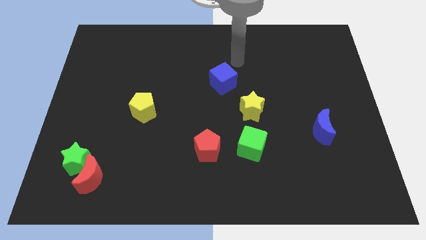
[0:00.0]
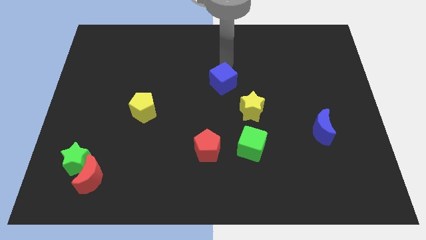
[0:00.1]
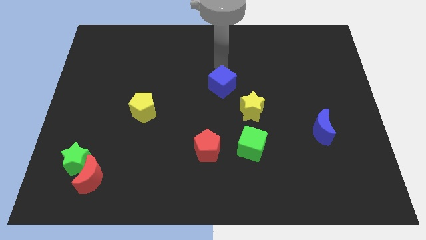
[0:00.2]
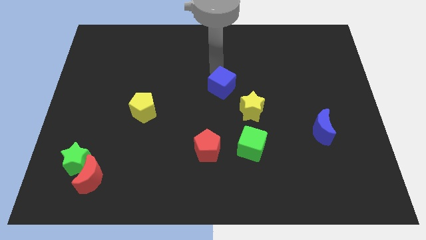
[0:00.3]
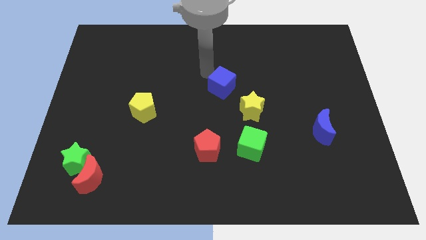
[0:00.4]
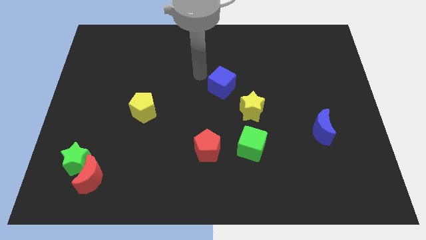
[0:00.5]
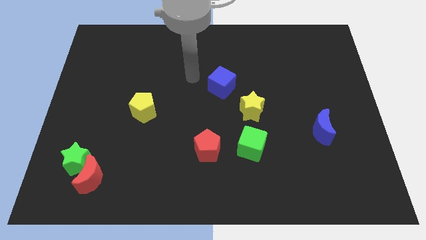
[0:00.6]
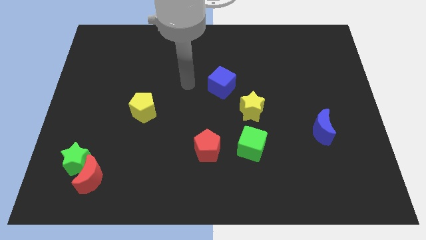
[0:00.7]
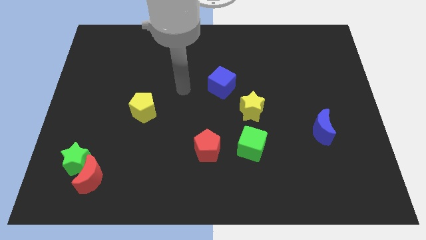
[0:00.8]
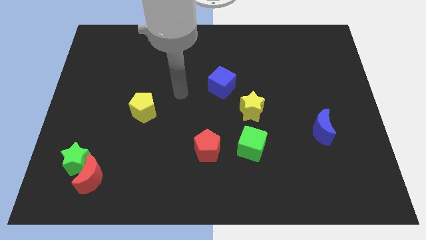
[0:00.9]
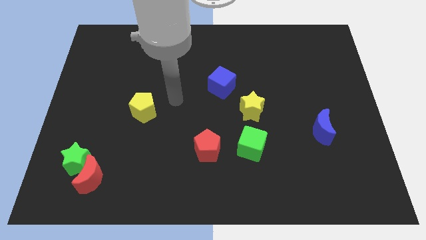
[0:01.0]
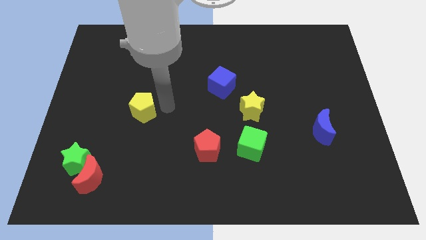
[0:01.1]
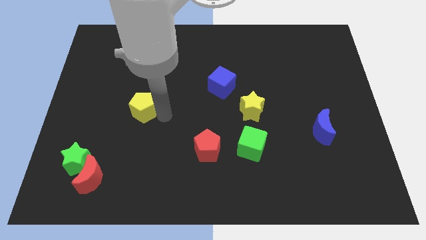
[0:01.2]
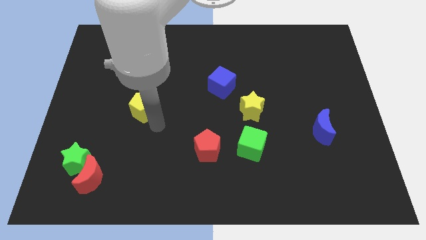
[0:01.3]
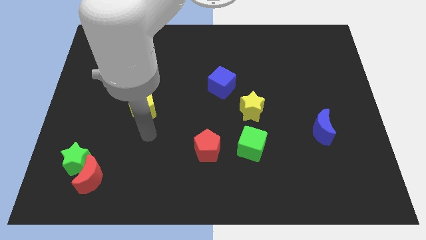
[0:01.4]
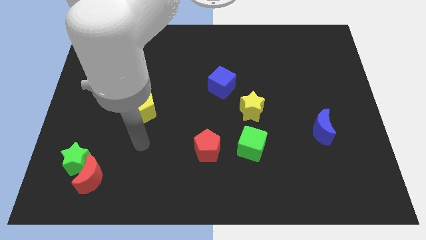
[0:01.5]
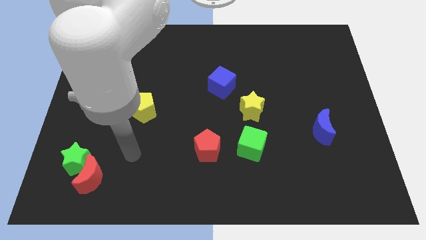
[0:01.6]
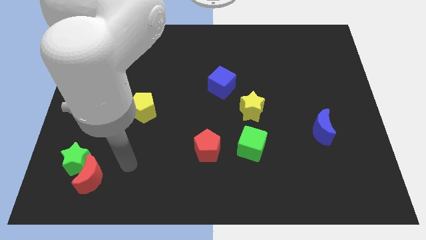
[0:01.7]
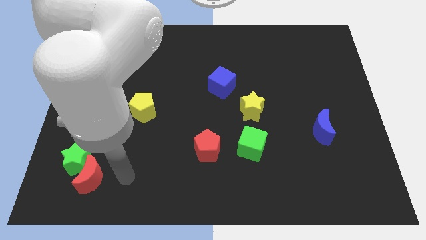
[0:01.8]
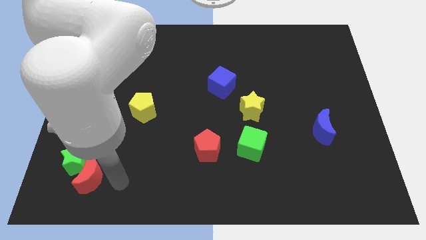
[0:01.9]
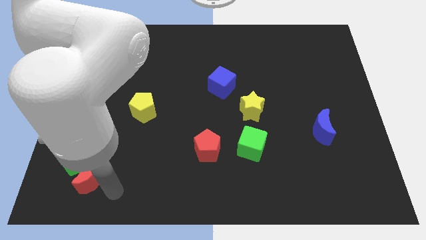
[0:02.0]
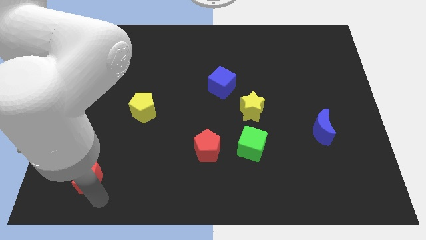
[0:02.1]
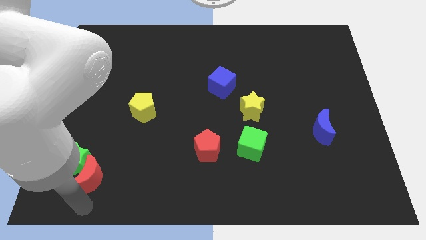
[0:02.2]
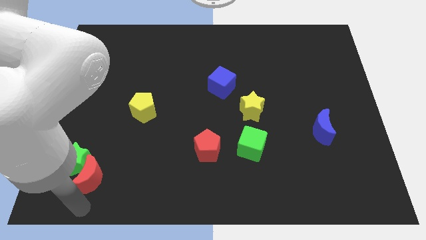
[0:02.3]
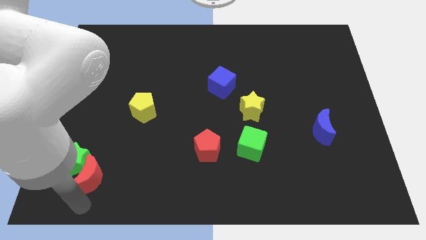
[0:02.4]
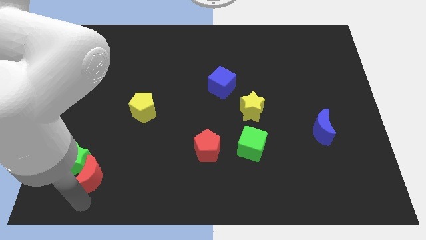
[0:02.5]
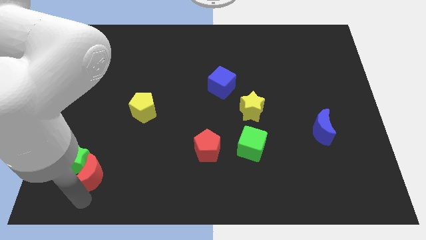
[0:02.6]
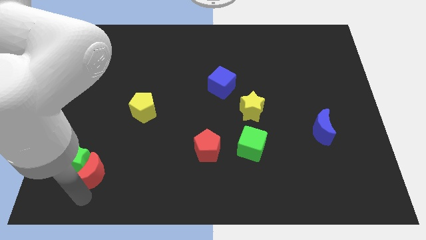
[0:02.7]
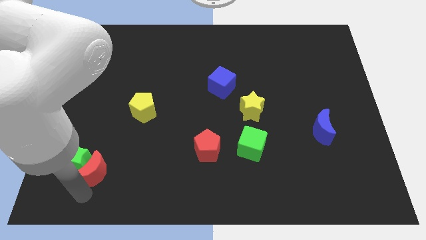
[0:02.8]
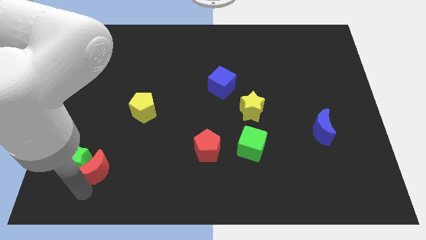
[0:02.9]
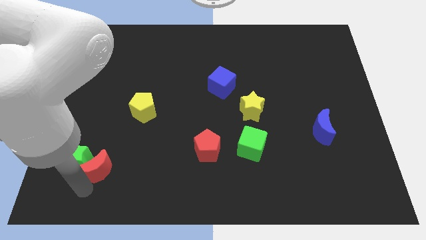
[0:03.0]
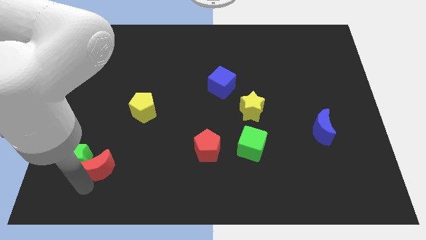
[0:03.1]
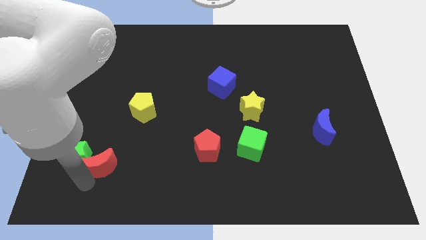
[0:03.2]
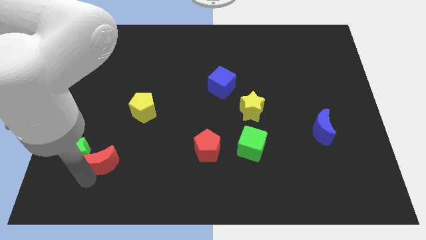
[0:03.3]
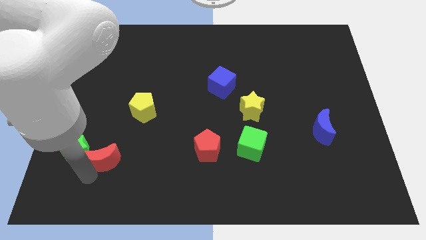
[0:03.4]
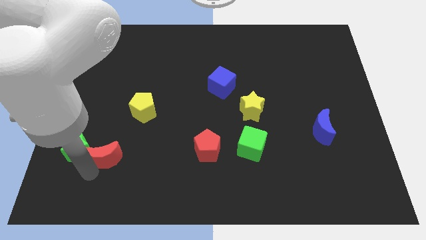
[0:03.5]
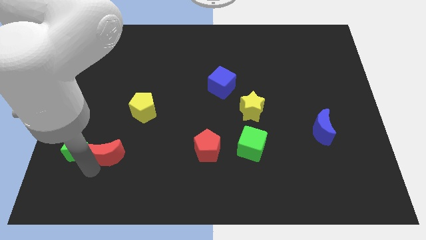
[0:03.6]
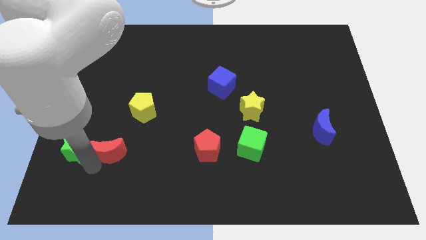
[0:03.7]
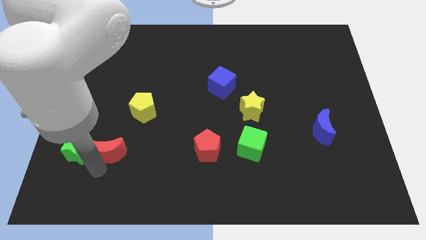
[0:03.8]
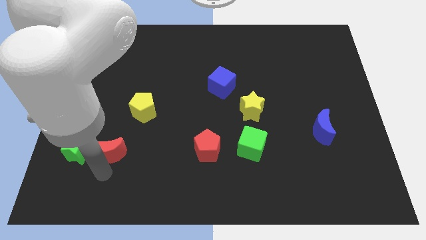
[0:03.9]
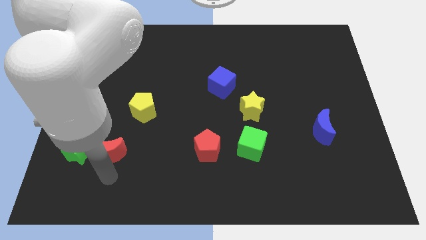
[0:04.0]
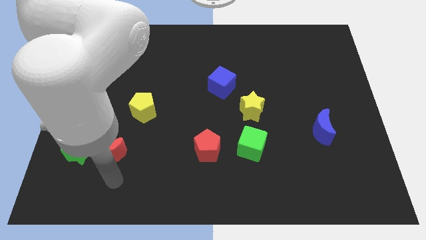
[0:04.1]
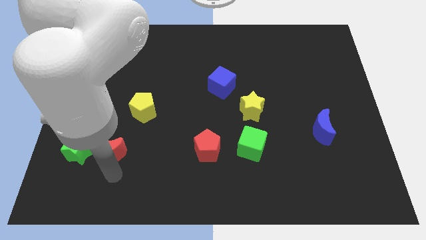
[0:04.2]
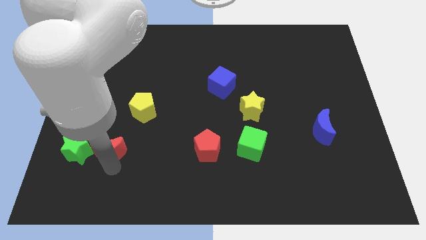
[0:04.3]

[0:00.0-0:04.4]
push the red moon diagonally up and to the right of the green star

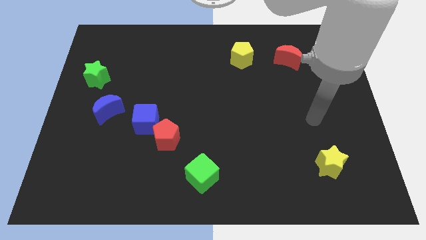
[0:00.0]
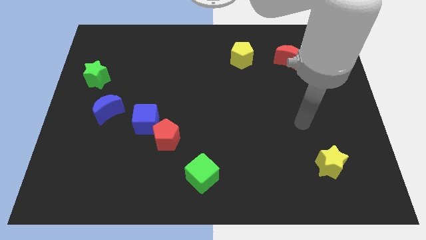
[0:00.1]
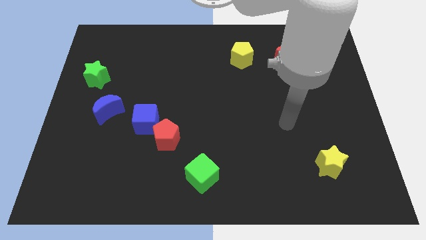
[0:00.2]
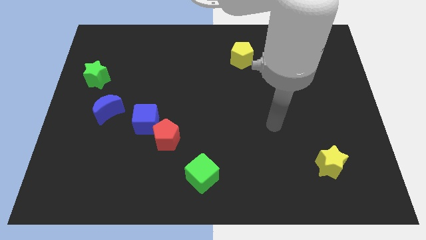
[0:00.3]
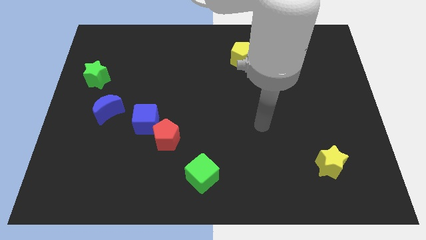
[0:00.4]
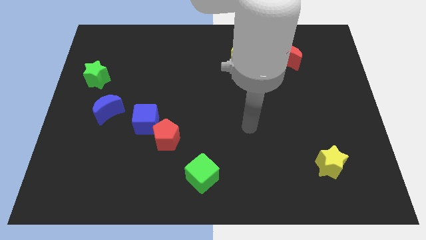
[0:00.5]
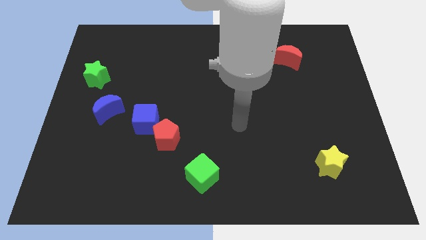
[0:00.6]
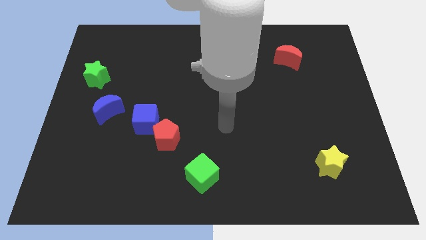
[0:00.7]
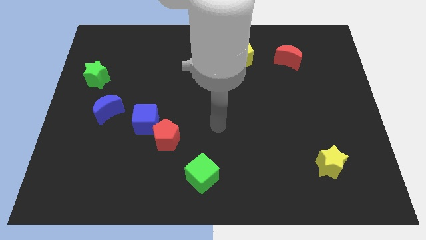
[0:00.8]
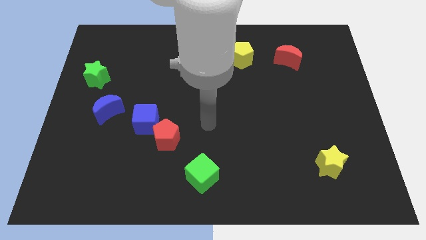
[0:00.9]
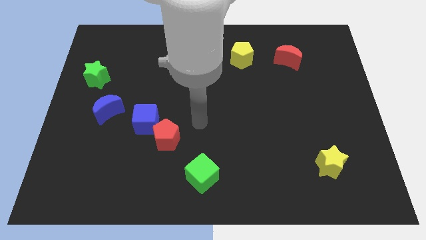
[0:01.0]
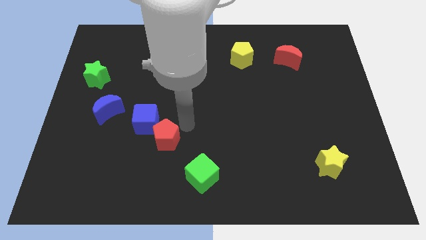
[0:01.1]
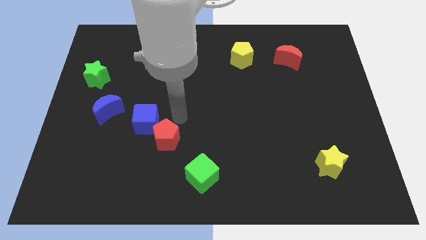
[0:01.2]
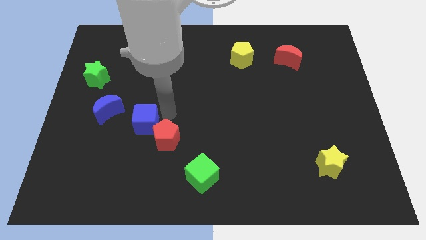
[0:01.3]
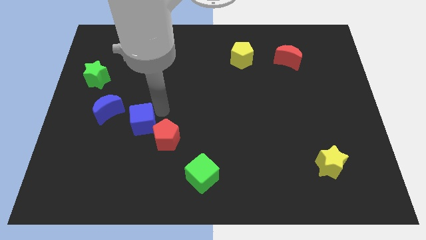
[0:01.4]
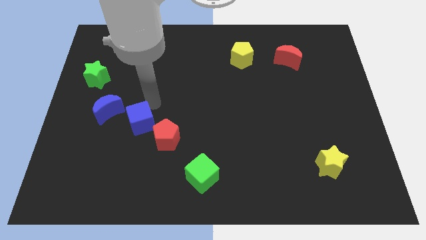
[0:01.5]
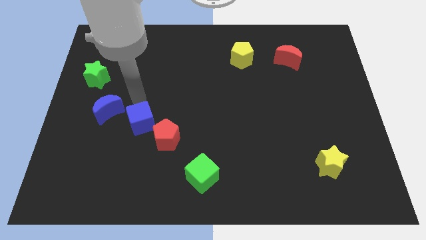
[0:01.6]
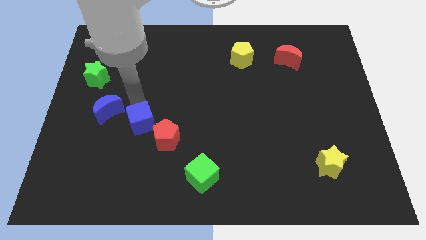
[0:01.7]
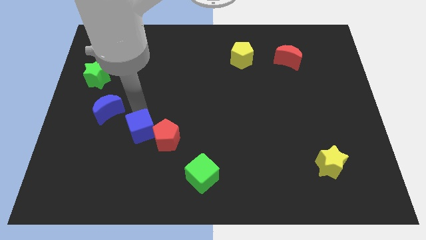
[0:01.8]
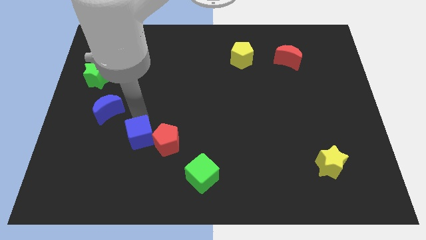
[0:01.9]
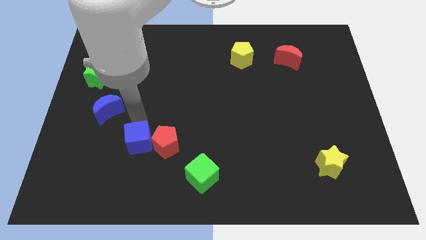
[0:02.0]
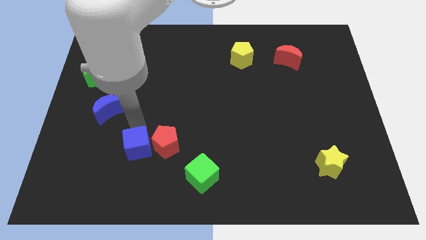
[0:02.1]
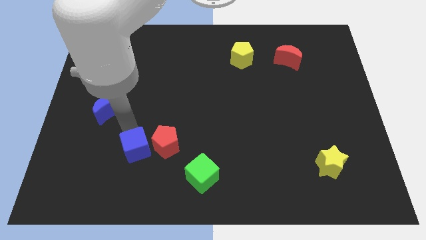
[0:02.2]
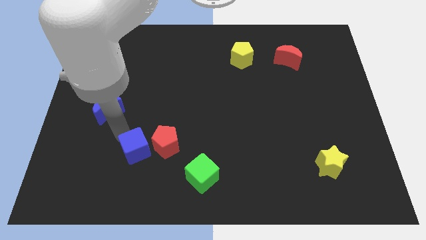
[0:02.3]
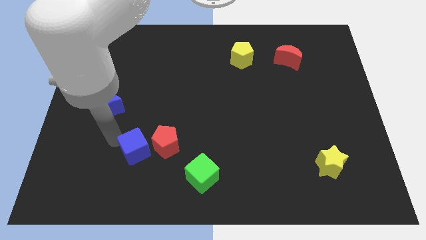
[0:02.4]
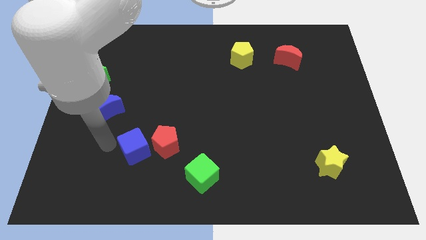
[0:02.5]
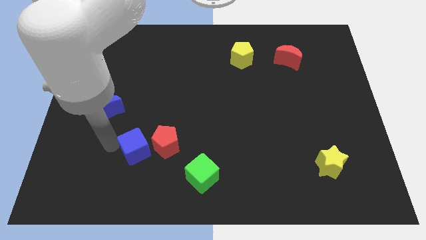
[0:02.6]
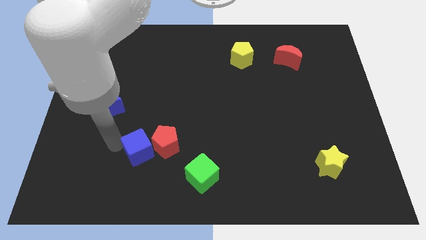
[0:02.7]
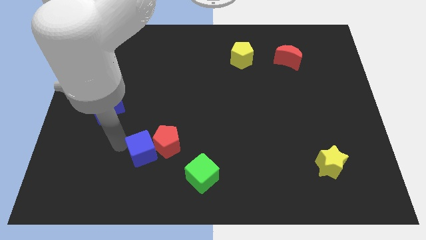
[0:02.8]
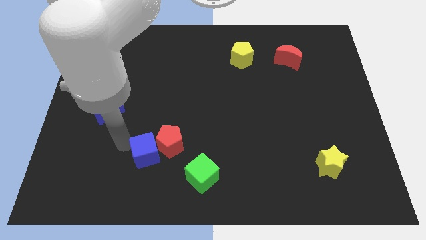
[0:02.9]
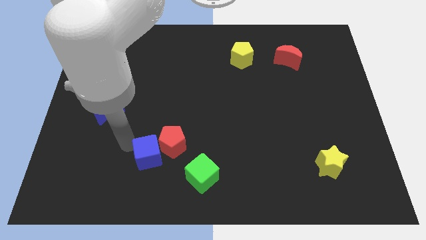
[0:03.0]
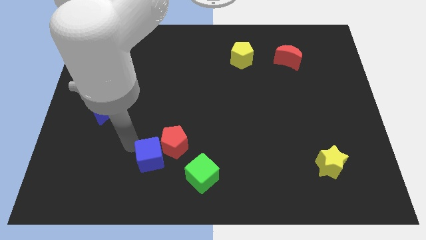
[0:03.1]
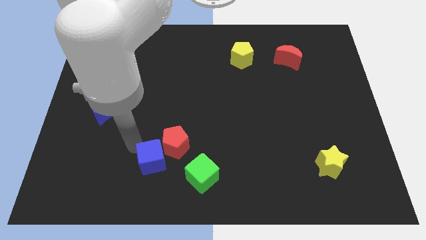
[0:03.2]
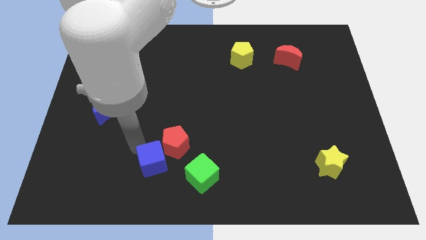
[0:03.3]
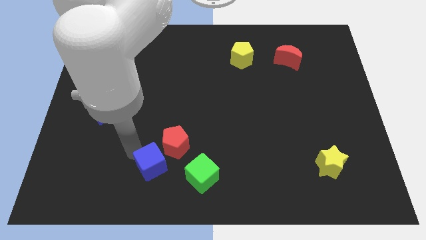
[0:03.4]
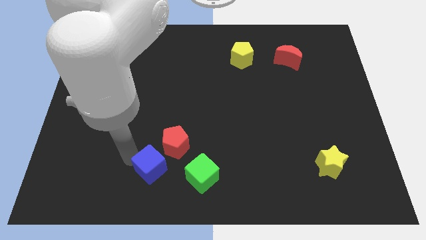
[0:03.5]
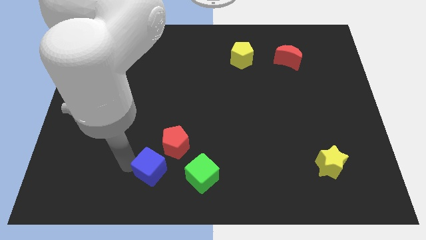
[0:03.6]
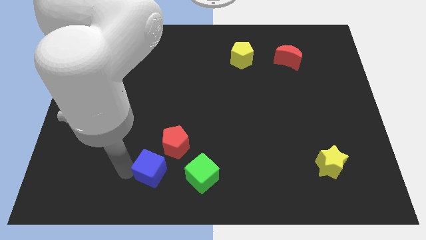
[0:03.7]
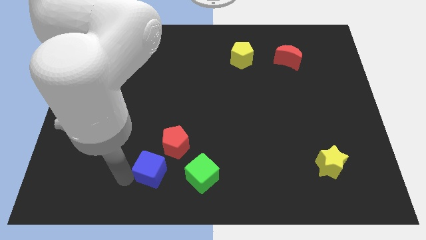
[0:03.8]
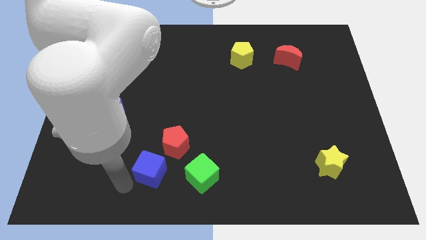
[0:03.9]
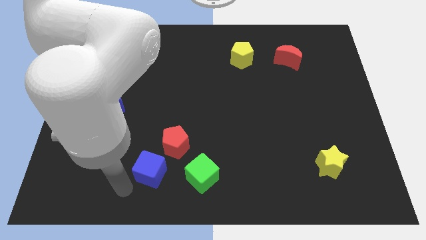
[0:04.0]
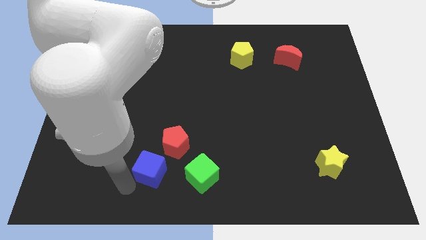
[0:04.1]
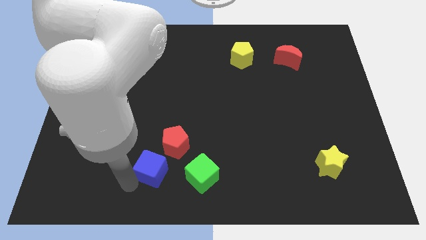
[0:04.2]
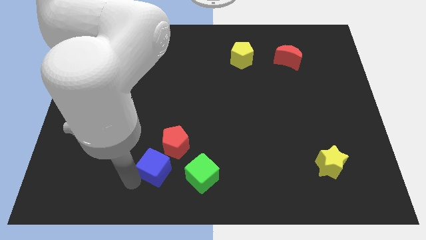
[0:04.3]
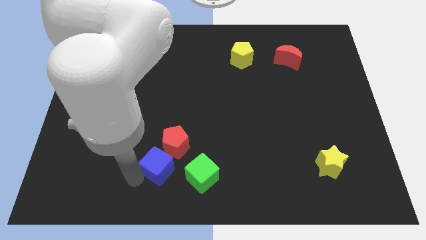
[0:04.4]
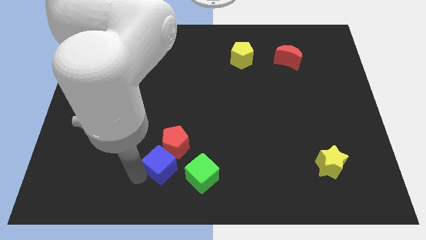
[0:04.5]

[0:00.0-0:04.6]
put the blue cube to the top left side of the green cube
